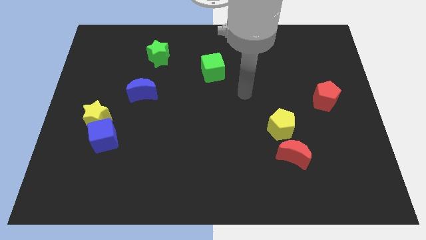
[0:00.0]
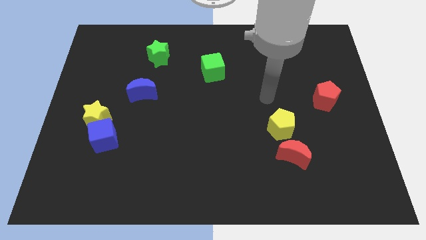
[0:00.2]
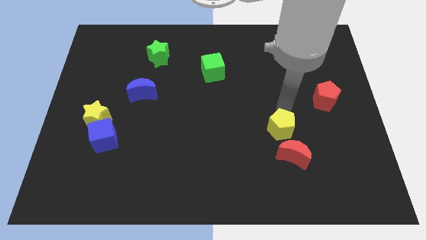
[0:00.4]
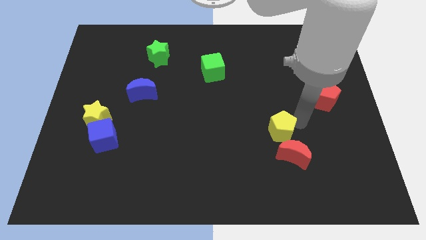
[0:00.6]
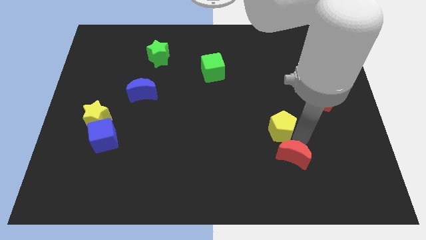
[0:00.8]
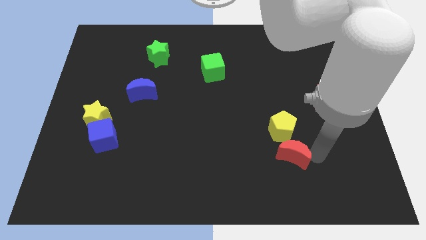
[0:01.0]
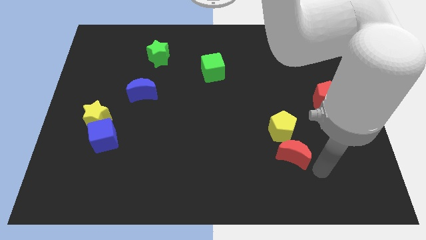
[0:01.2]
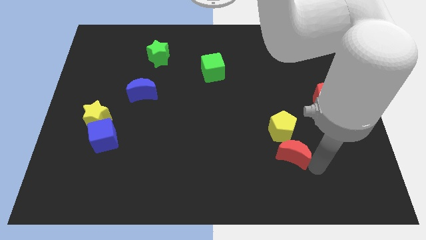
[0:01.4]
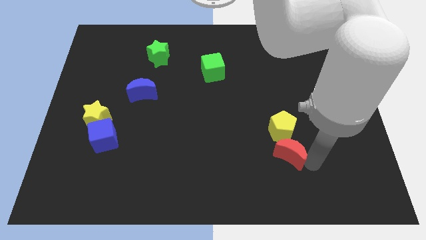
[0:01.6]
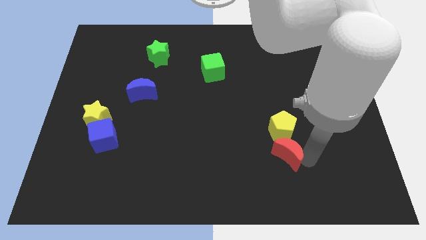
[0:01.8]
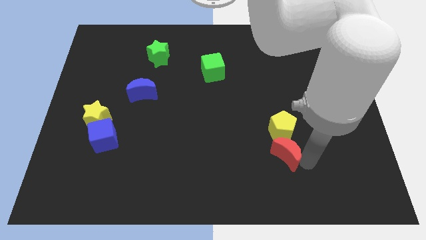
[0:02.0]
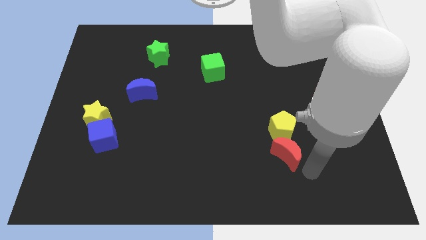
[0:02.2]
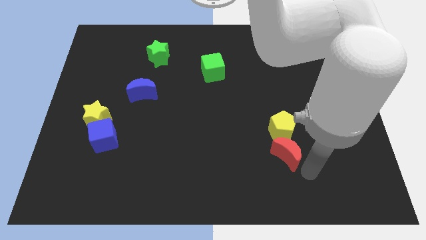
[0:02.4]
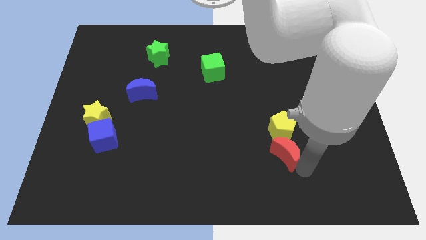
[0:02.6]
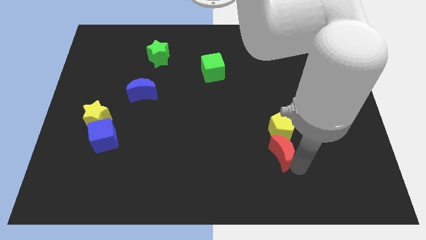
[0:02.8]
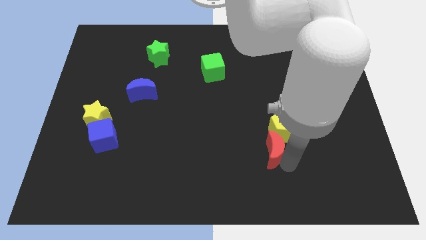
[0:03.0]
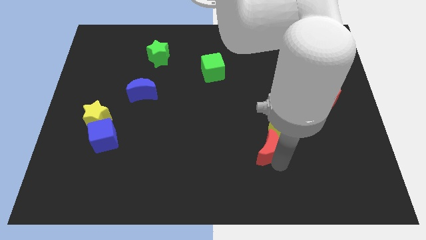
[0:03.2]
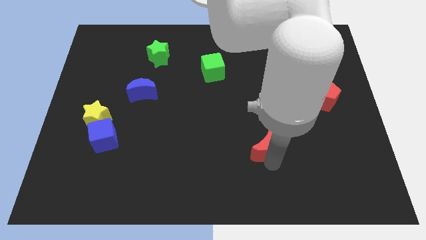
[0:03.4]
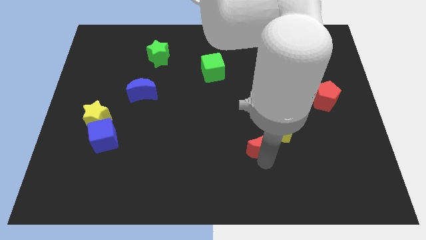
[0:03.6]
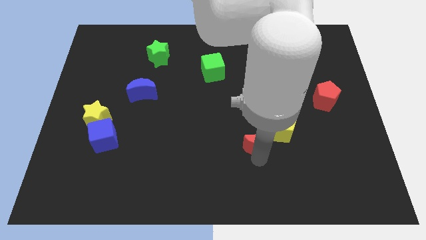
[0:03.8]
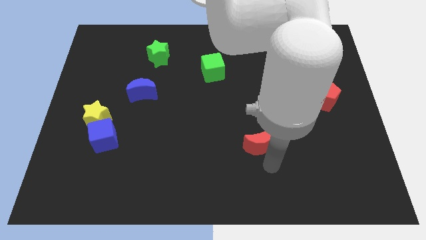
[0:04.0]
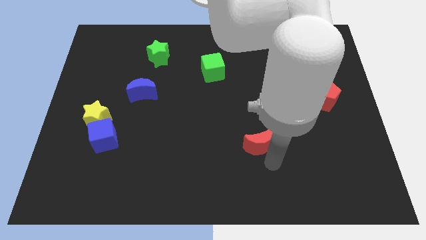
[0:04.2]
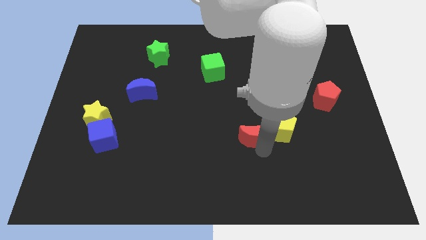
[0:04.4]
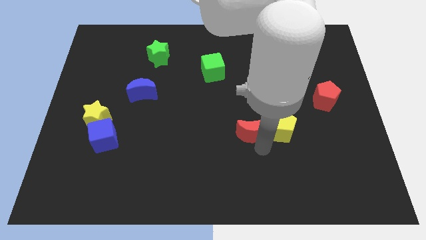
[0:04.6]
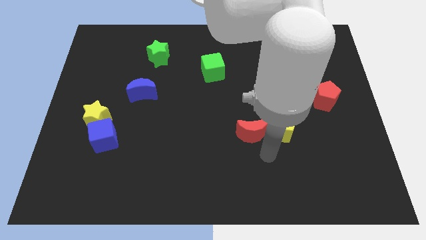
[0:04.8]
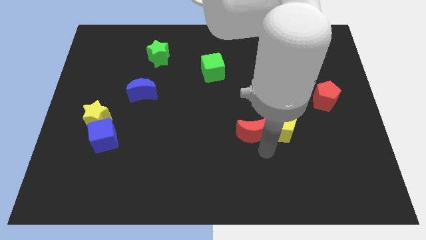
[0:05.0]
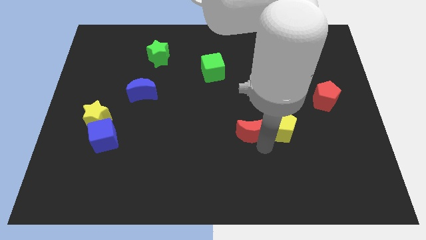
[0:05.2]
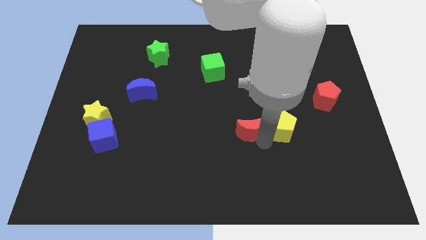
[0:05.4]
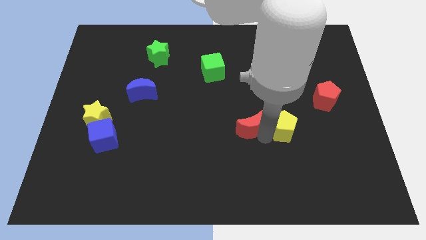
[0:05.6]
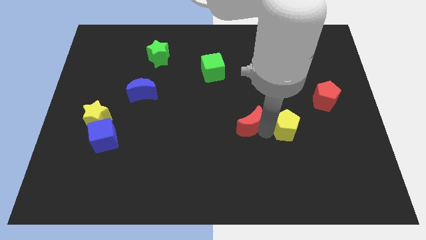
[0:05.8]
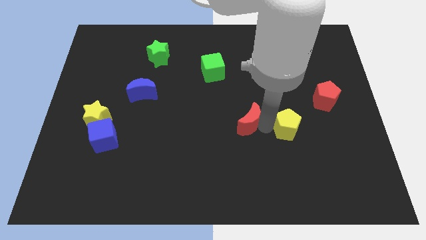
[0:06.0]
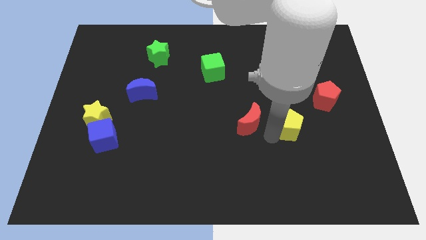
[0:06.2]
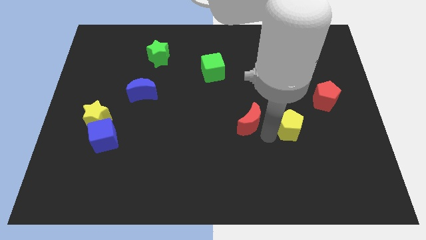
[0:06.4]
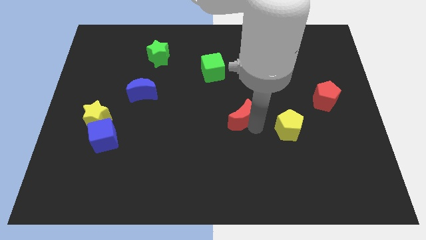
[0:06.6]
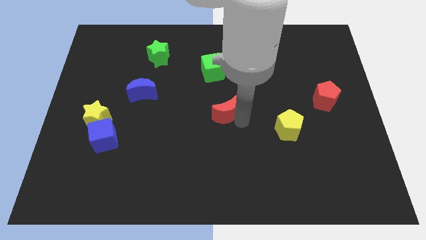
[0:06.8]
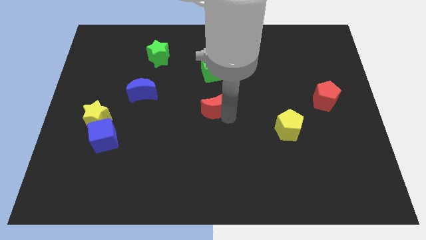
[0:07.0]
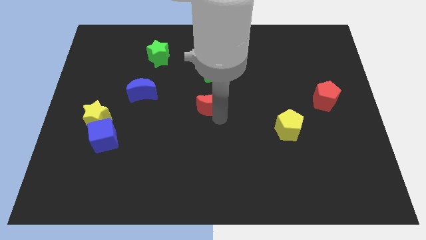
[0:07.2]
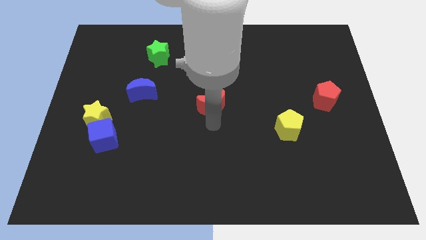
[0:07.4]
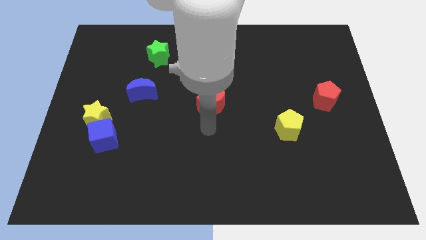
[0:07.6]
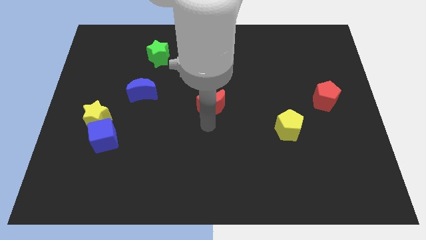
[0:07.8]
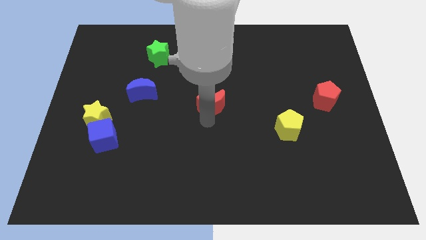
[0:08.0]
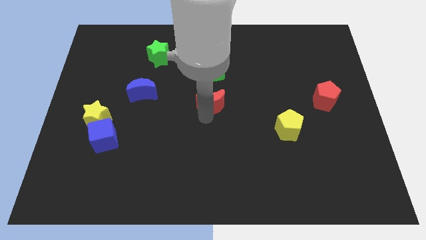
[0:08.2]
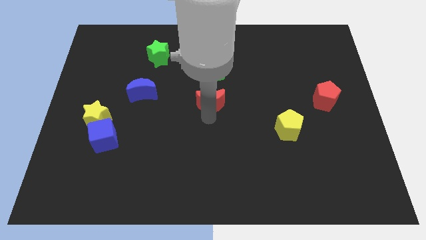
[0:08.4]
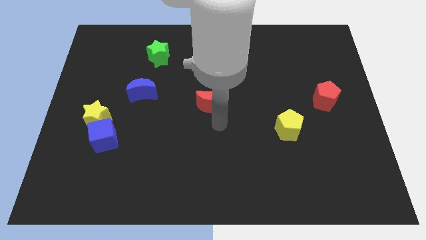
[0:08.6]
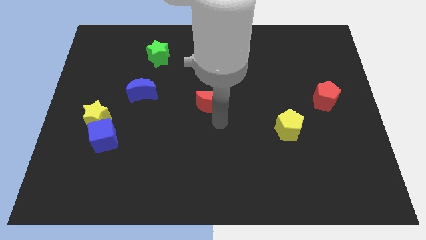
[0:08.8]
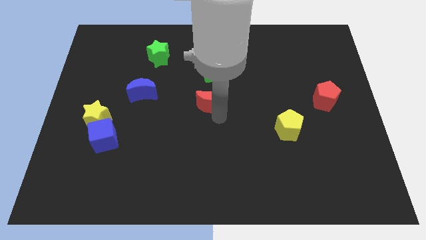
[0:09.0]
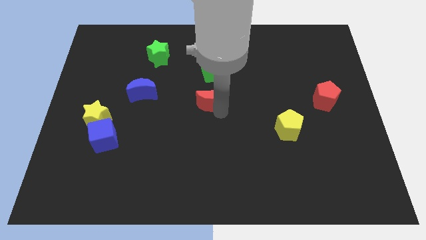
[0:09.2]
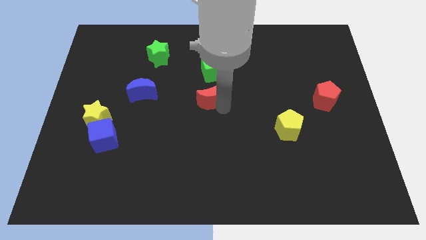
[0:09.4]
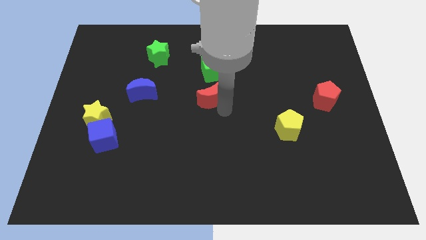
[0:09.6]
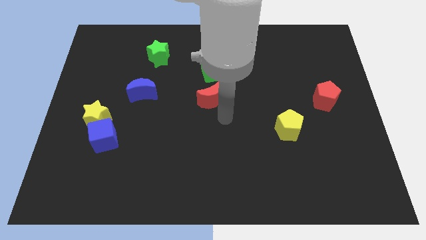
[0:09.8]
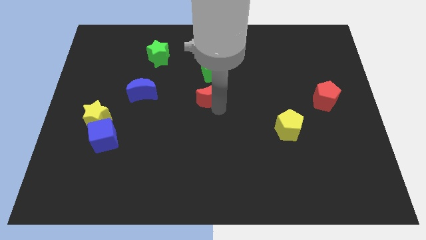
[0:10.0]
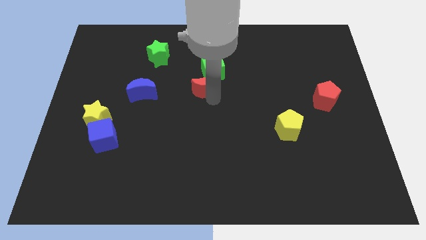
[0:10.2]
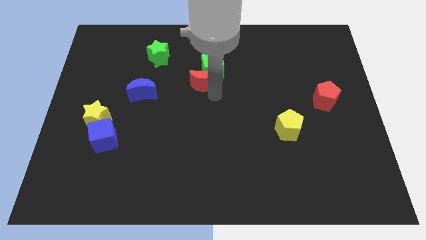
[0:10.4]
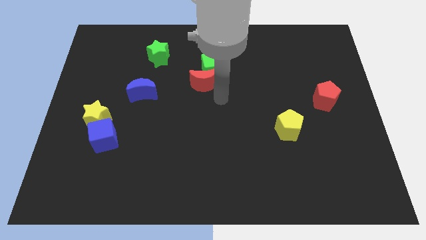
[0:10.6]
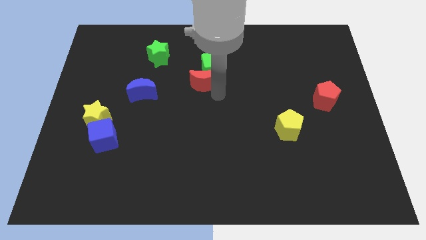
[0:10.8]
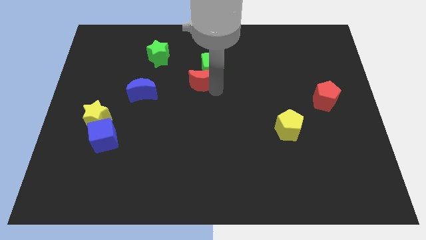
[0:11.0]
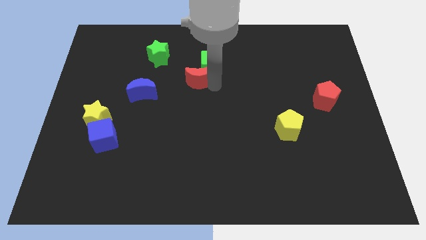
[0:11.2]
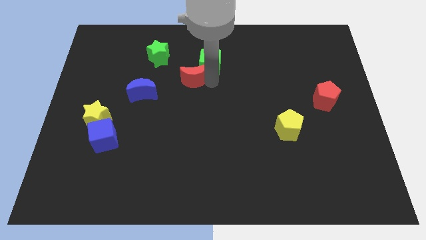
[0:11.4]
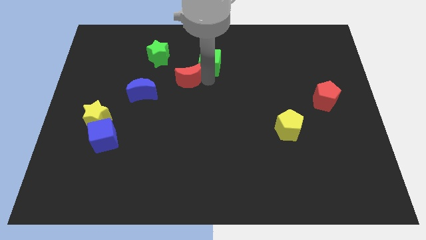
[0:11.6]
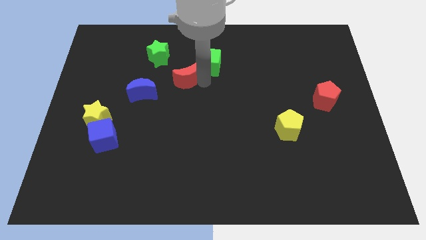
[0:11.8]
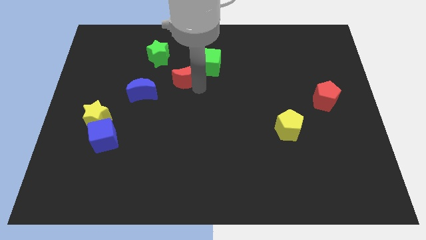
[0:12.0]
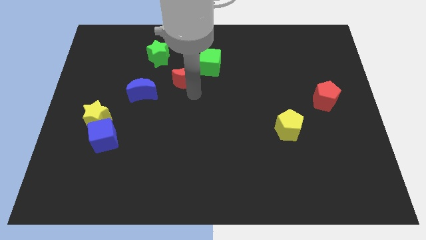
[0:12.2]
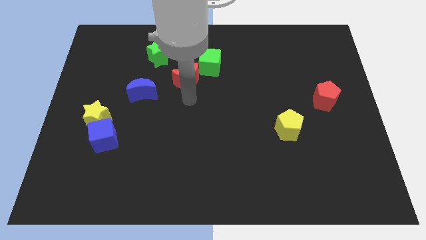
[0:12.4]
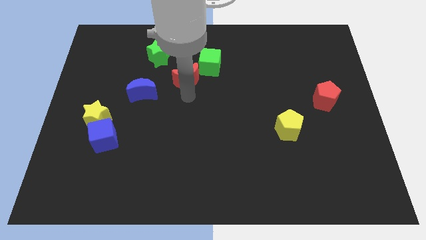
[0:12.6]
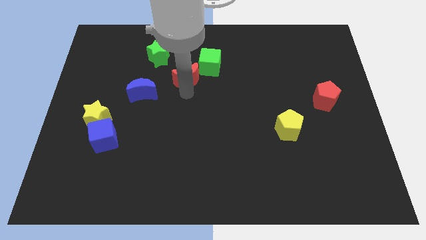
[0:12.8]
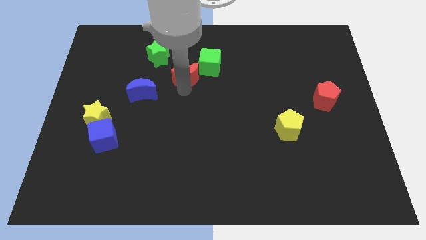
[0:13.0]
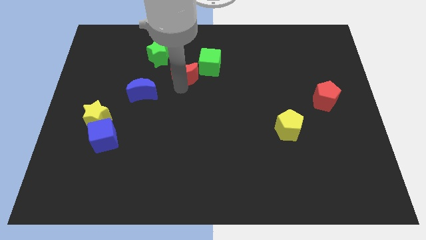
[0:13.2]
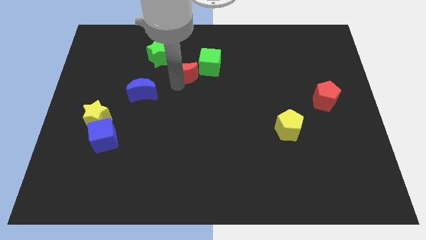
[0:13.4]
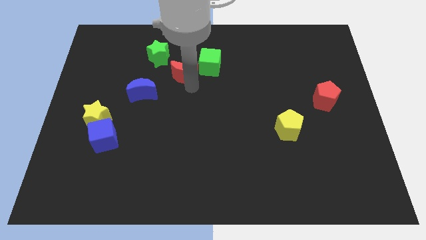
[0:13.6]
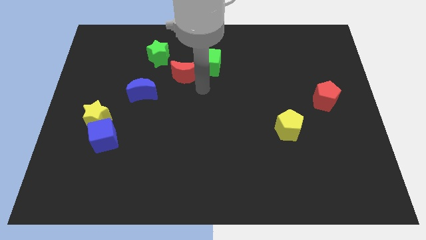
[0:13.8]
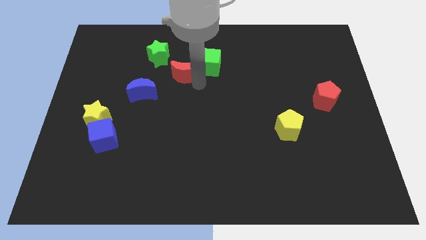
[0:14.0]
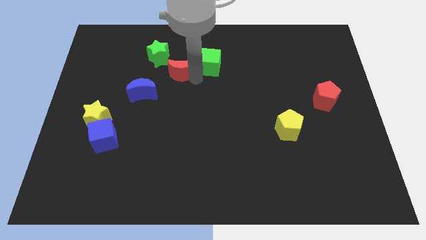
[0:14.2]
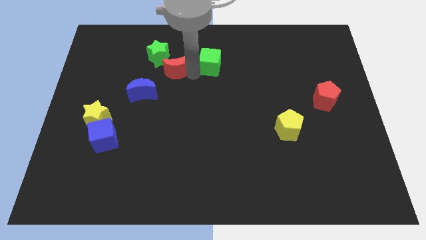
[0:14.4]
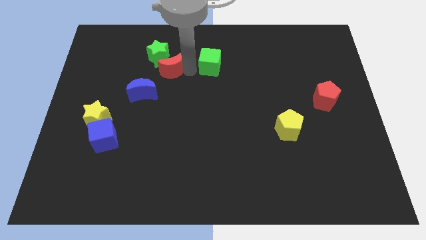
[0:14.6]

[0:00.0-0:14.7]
push the red moon next to the green star
